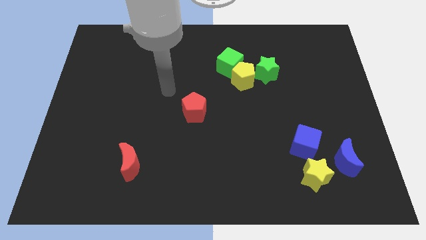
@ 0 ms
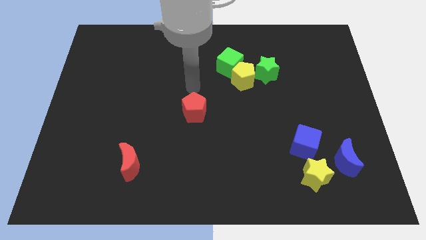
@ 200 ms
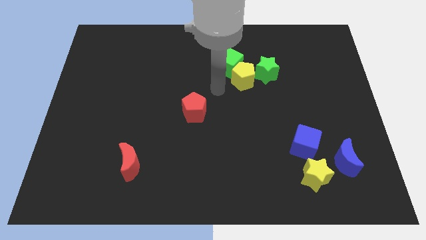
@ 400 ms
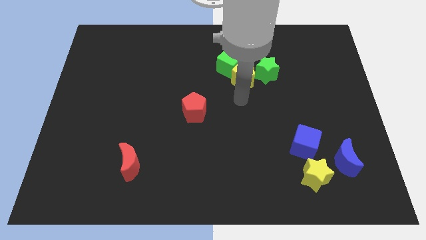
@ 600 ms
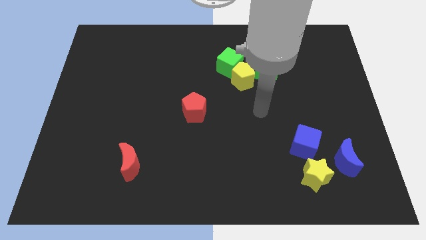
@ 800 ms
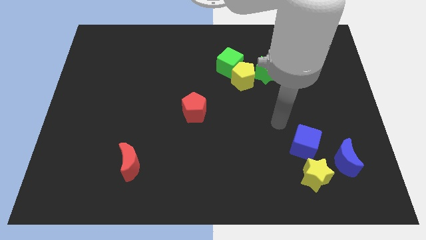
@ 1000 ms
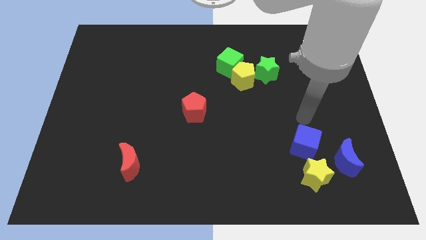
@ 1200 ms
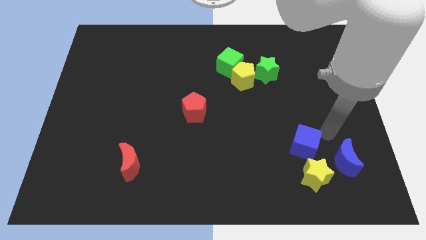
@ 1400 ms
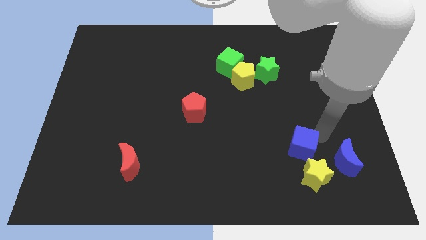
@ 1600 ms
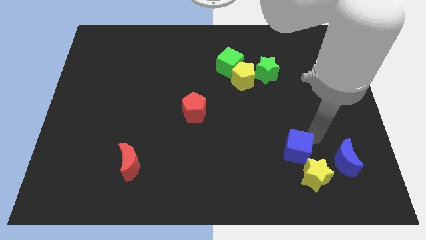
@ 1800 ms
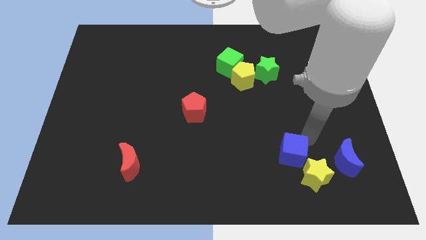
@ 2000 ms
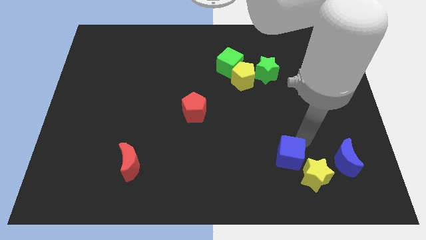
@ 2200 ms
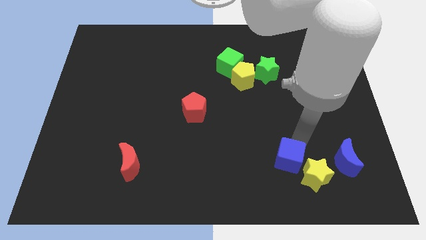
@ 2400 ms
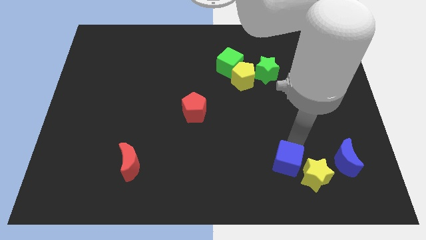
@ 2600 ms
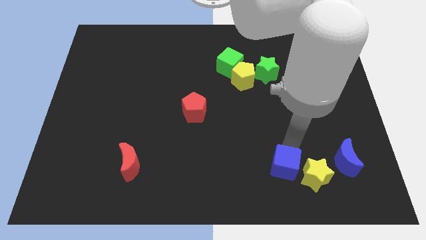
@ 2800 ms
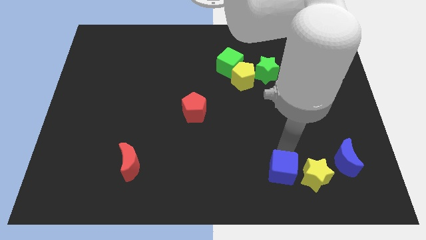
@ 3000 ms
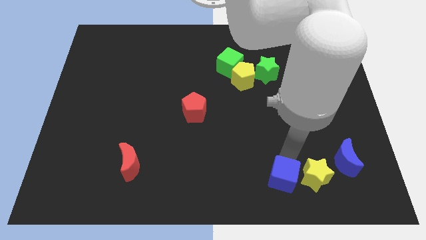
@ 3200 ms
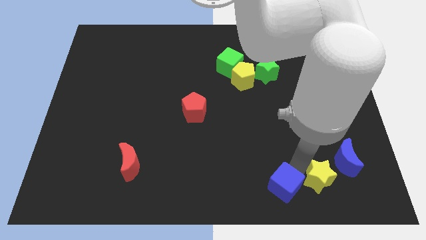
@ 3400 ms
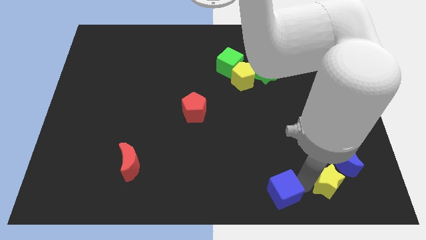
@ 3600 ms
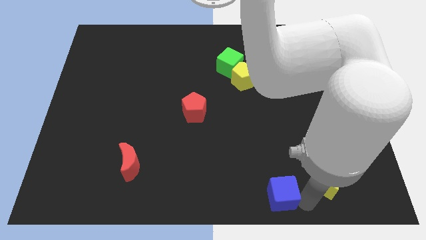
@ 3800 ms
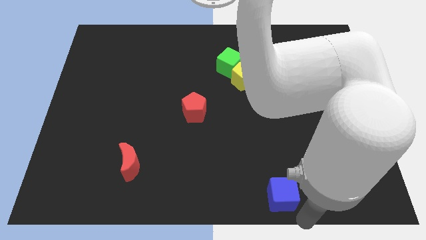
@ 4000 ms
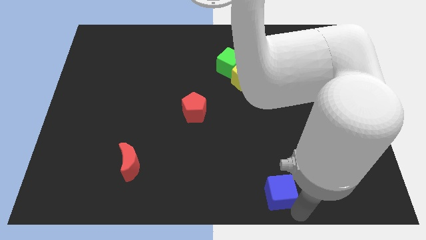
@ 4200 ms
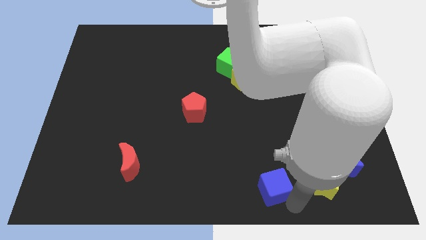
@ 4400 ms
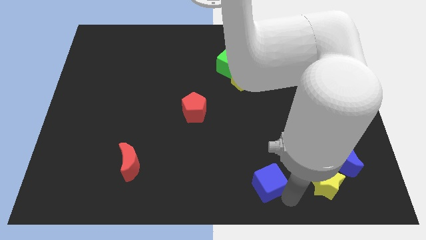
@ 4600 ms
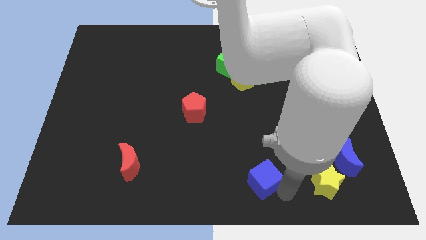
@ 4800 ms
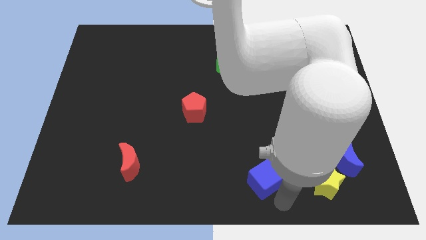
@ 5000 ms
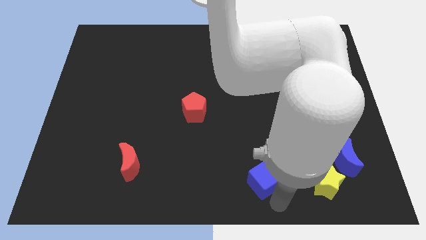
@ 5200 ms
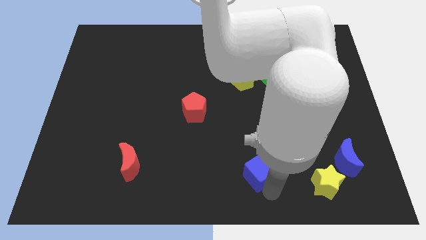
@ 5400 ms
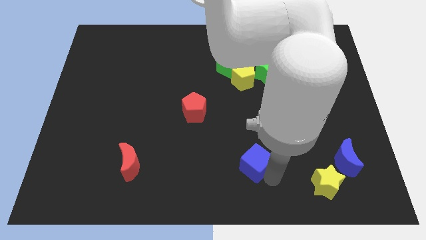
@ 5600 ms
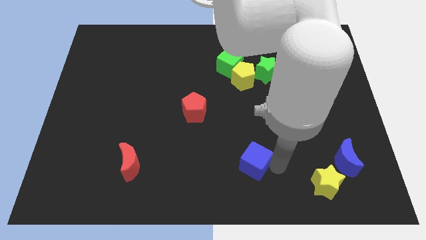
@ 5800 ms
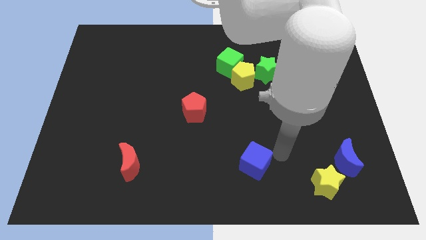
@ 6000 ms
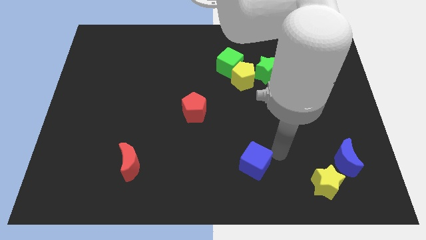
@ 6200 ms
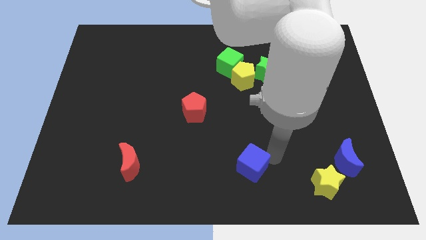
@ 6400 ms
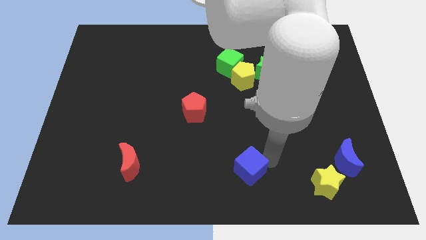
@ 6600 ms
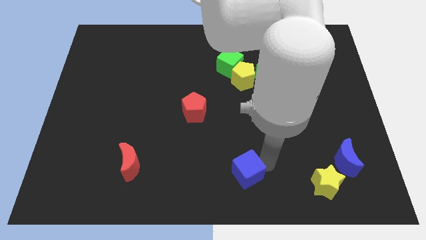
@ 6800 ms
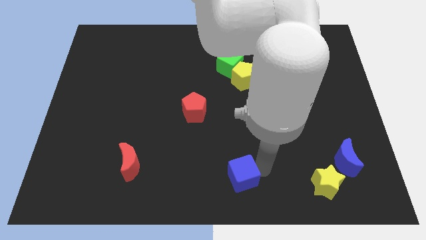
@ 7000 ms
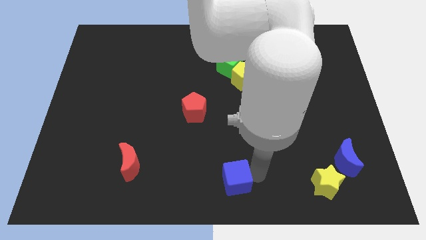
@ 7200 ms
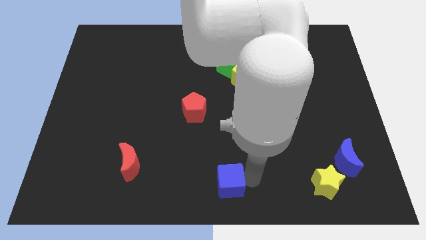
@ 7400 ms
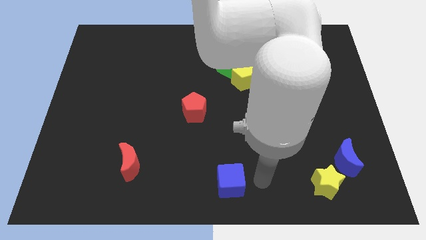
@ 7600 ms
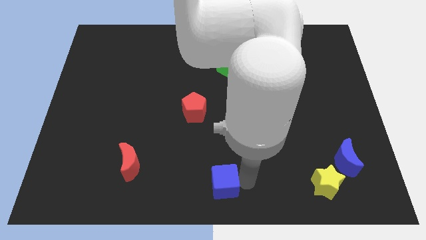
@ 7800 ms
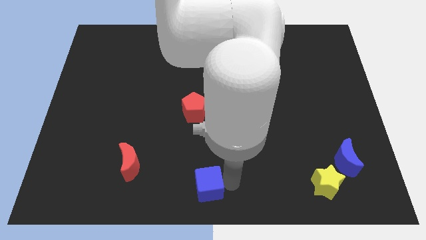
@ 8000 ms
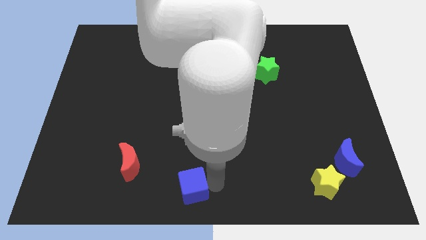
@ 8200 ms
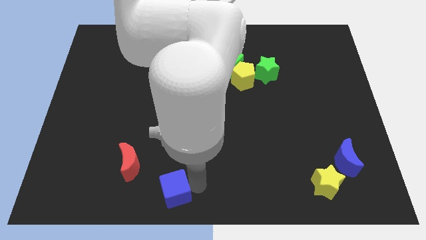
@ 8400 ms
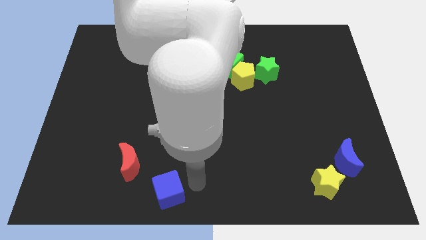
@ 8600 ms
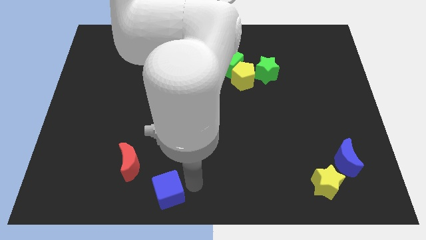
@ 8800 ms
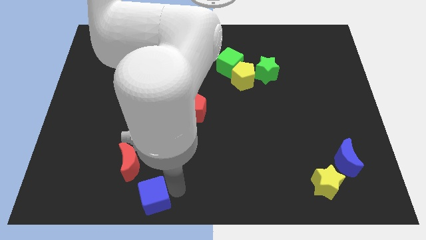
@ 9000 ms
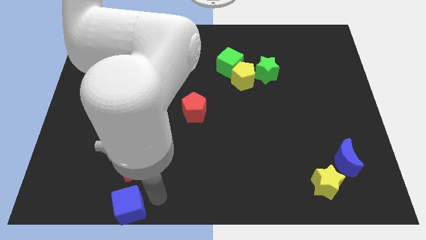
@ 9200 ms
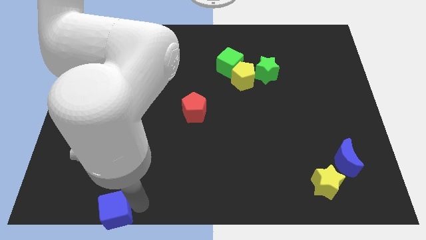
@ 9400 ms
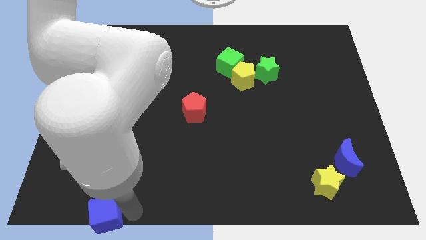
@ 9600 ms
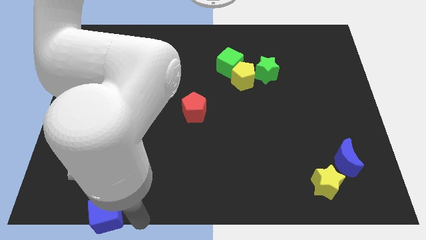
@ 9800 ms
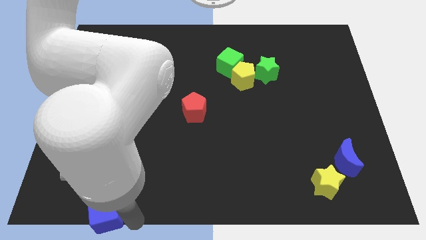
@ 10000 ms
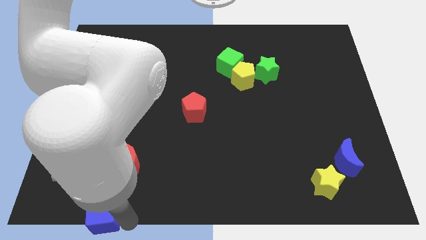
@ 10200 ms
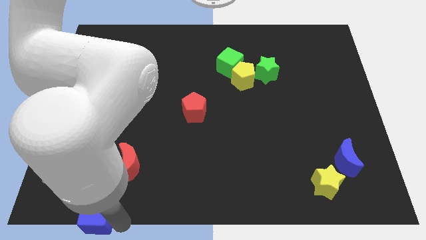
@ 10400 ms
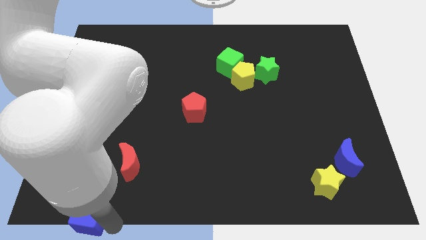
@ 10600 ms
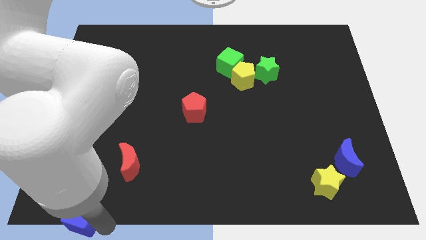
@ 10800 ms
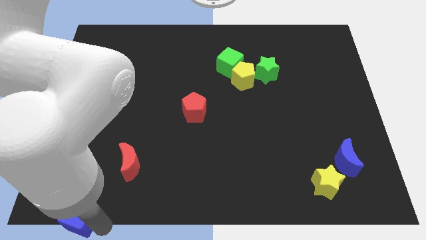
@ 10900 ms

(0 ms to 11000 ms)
move the blue cube to the bottom left
